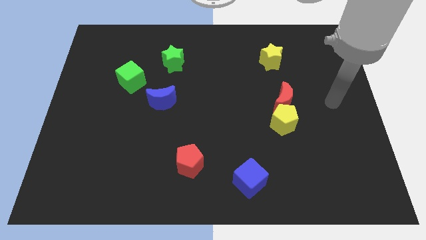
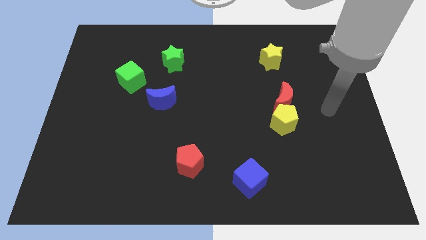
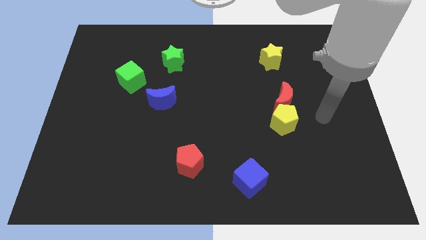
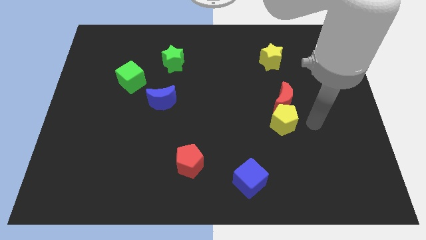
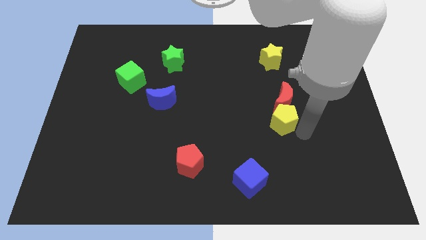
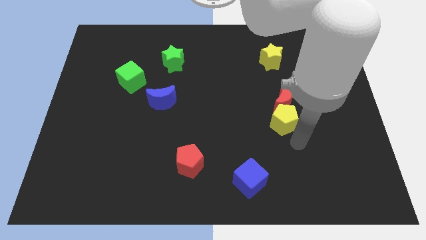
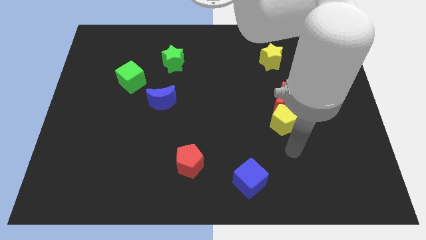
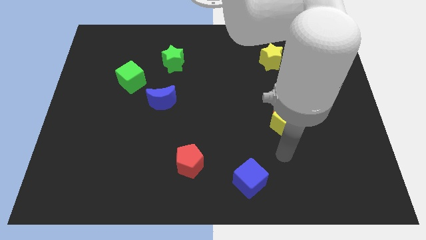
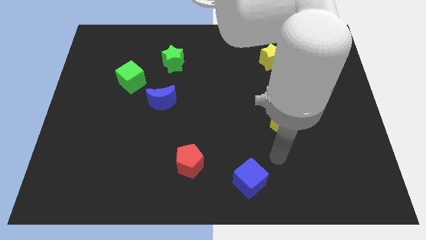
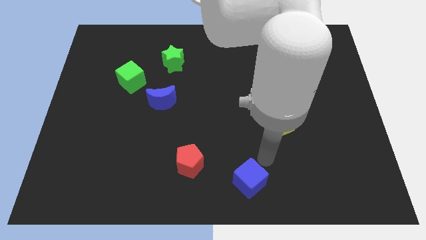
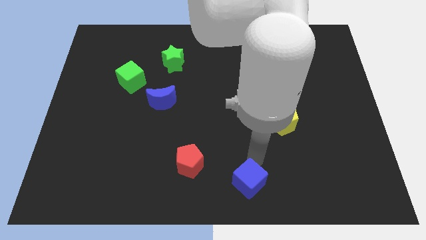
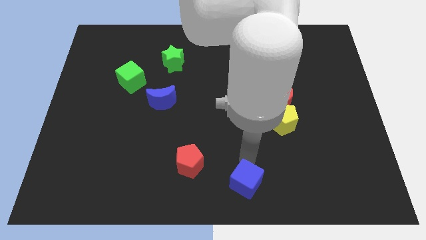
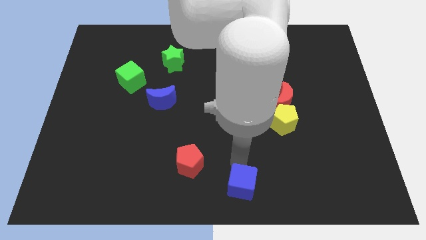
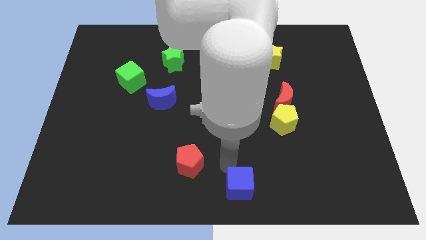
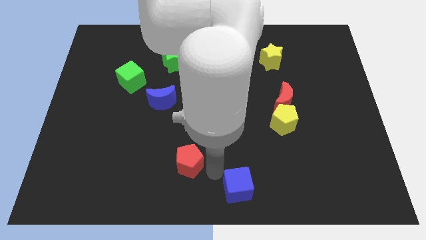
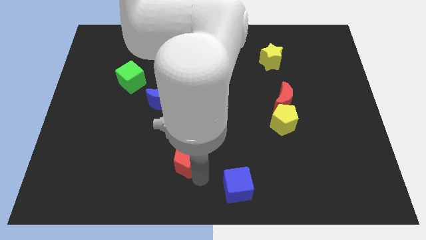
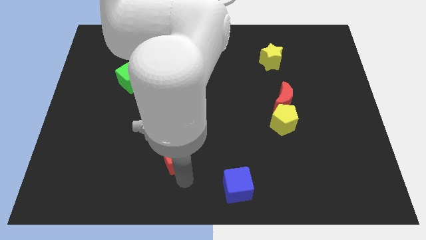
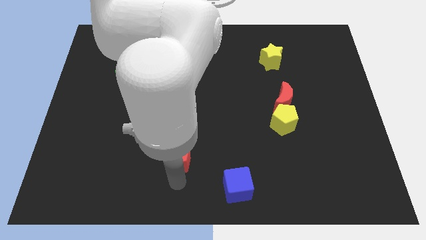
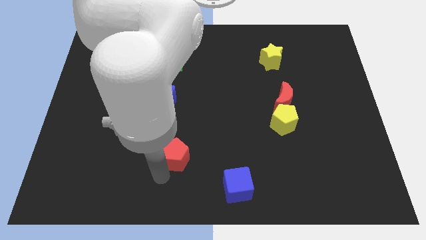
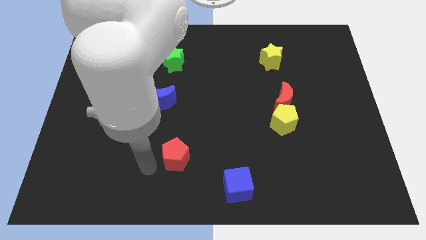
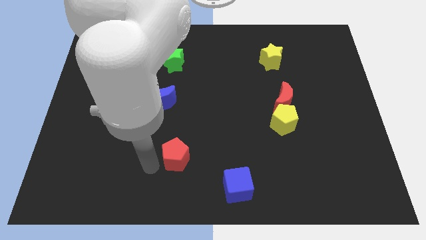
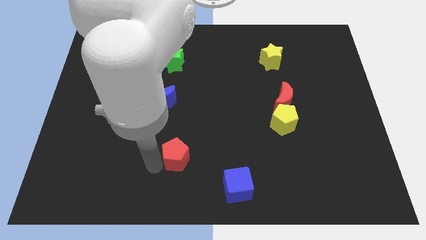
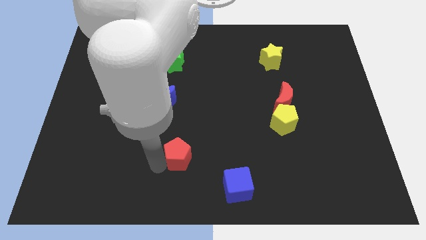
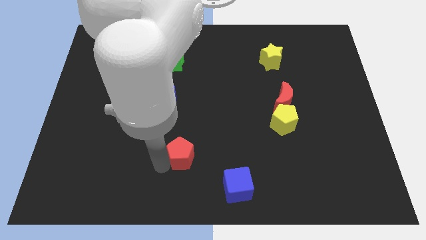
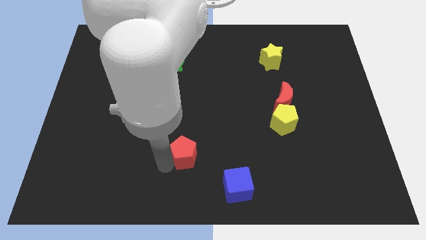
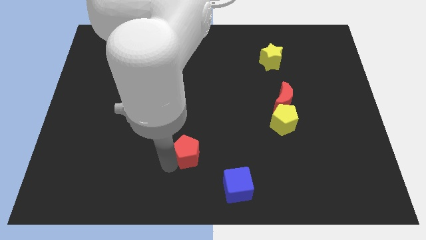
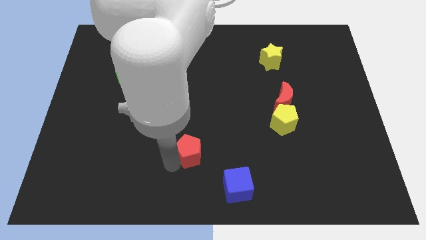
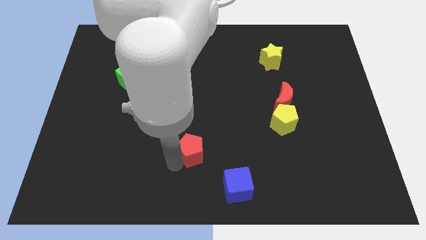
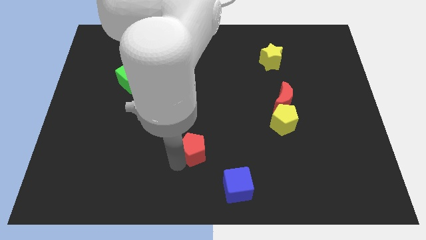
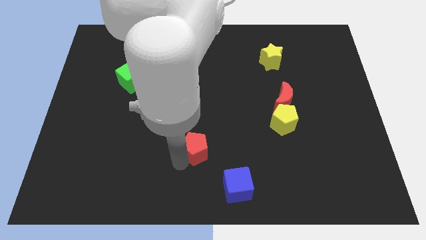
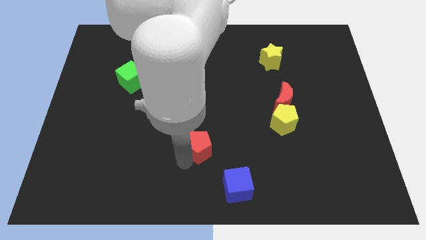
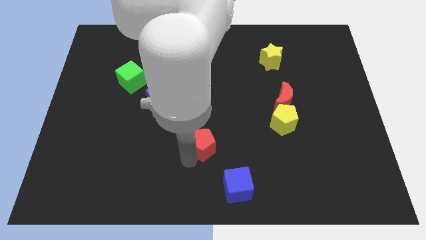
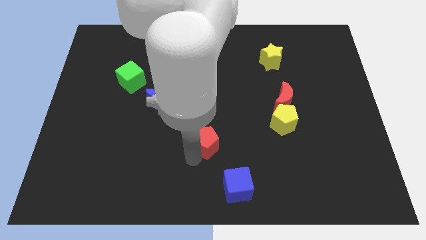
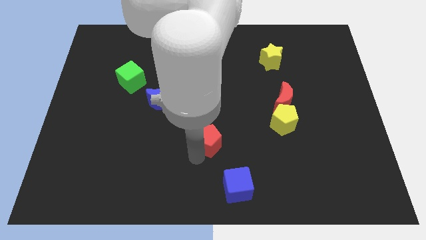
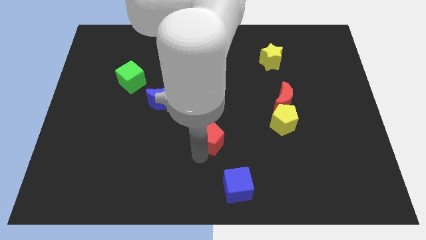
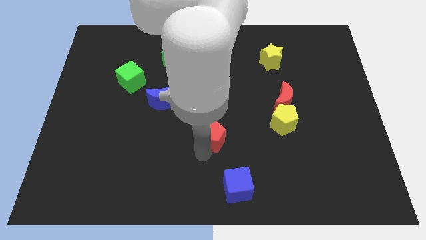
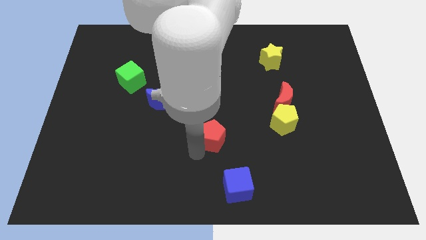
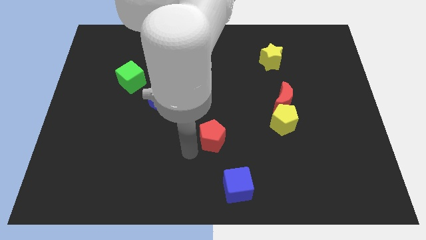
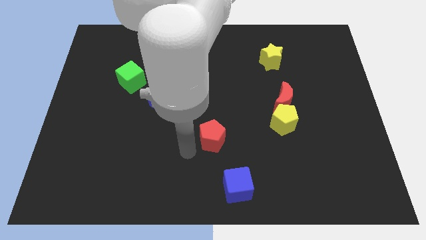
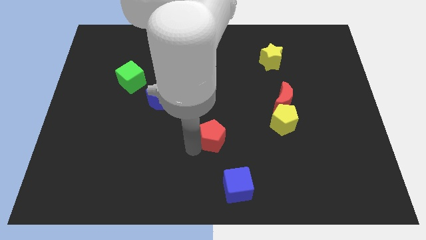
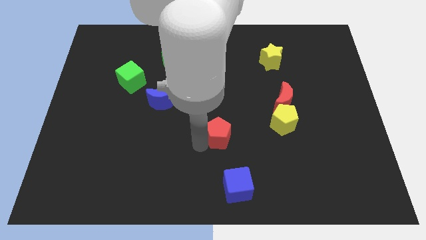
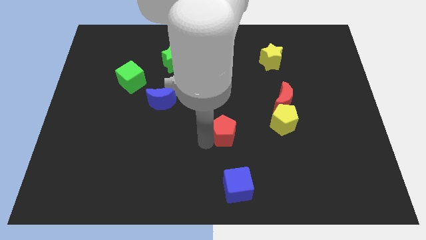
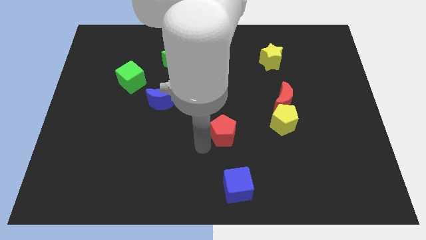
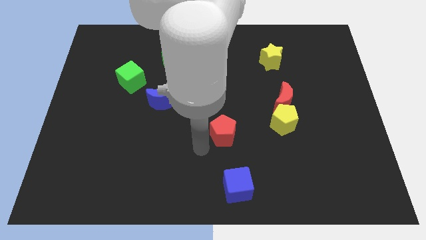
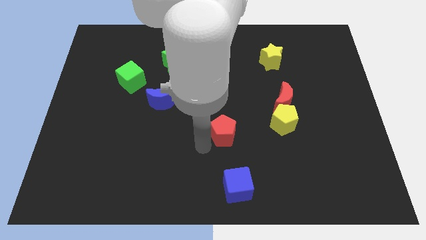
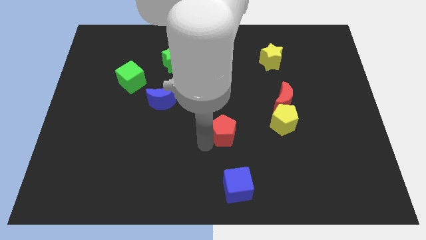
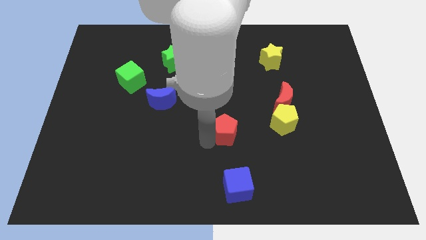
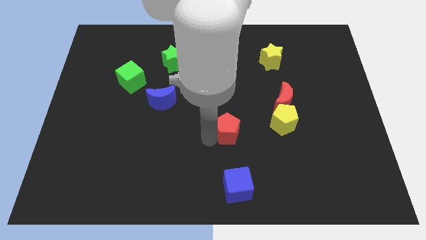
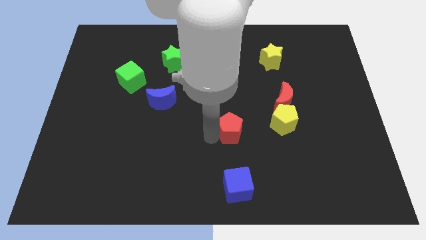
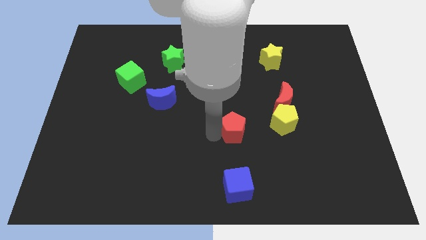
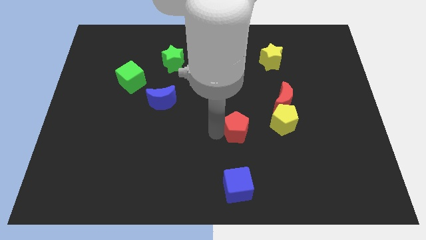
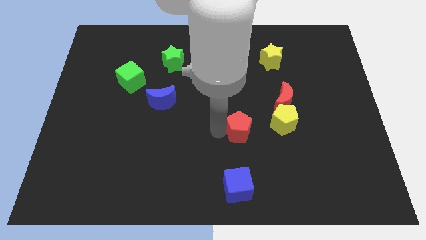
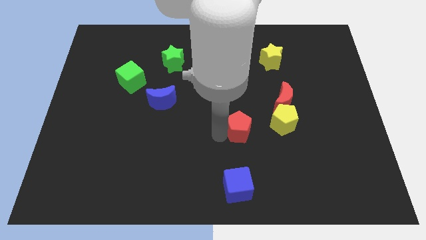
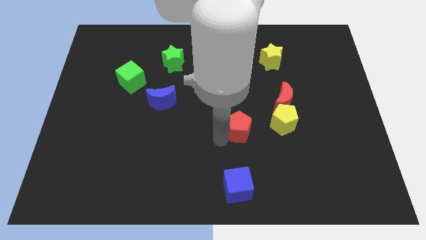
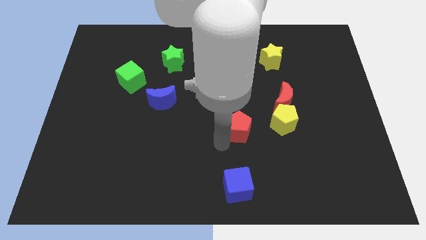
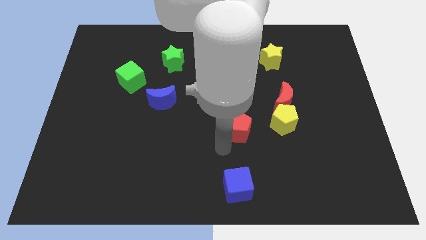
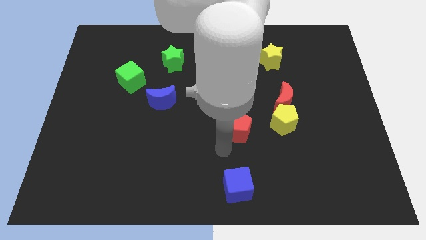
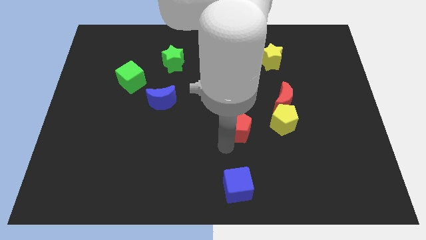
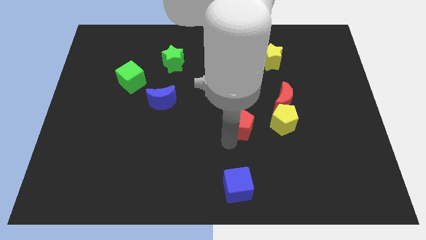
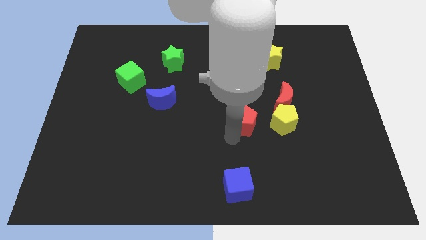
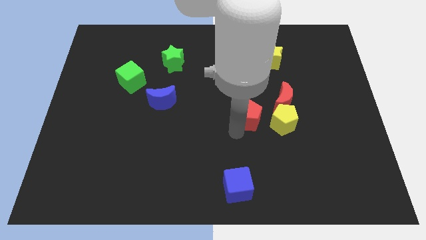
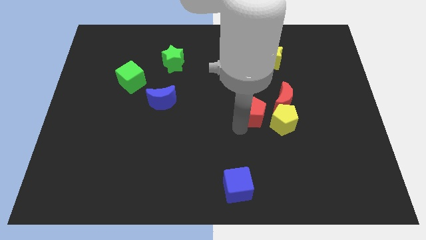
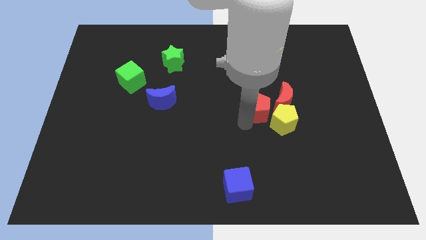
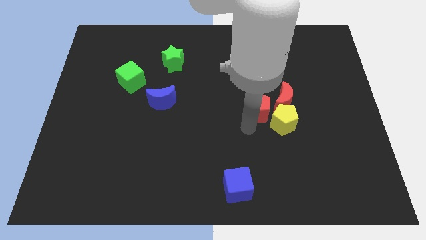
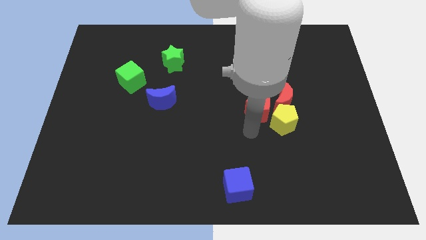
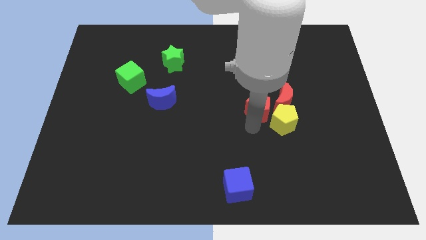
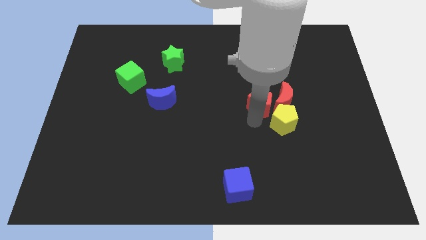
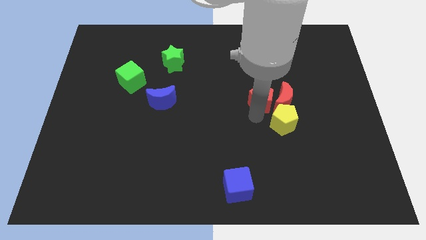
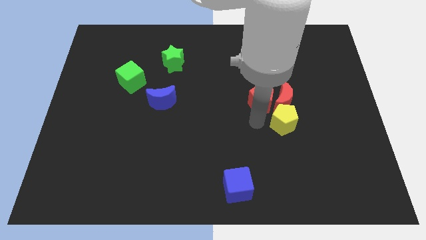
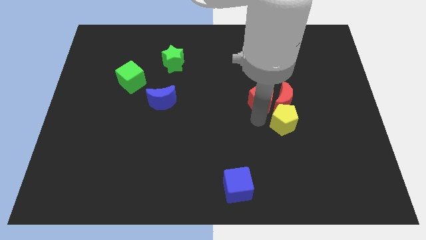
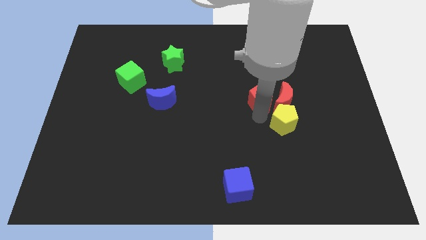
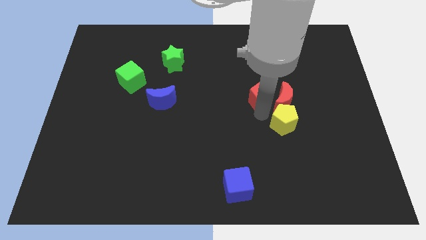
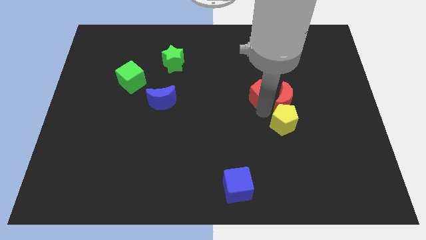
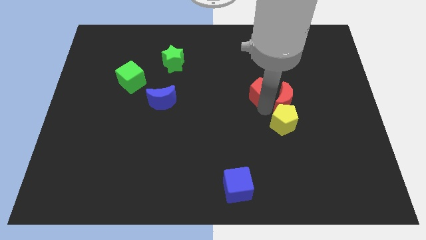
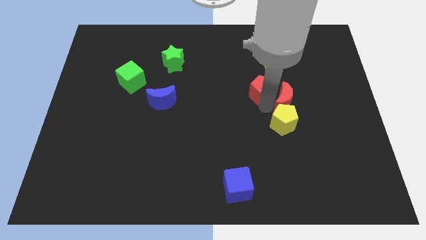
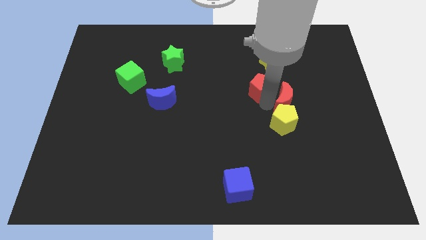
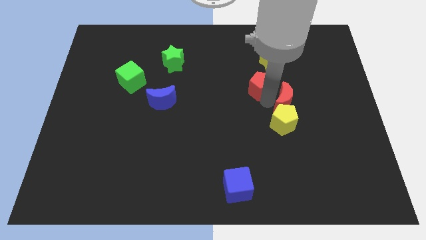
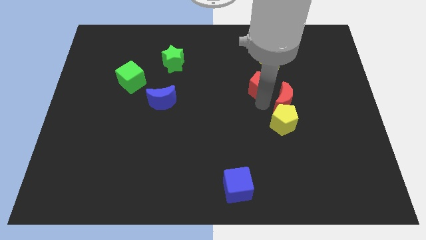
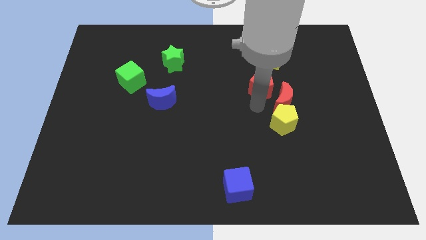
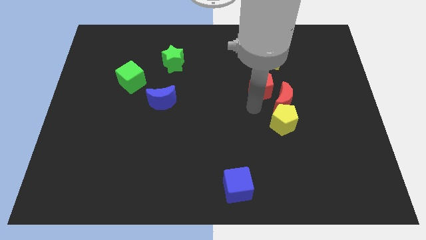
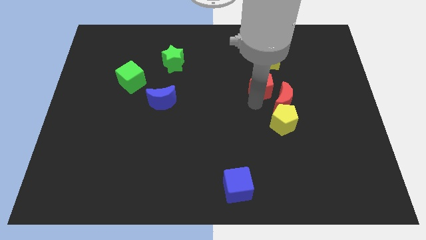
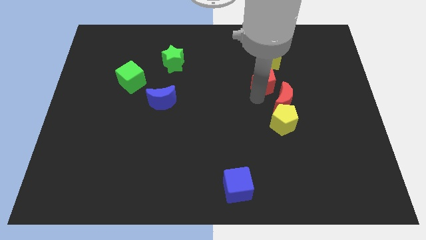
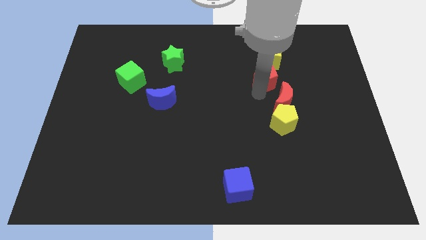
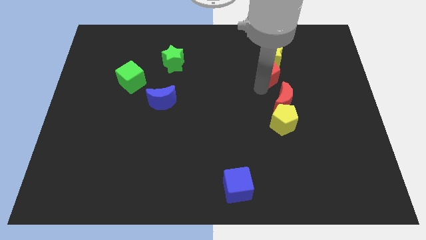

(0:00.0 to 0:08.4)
push the red pentagon towards the yellow star
